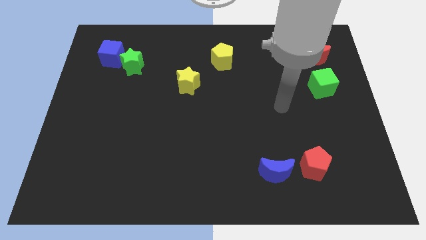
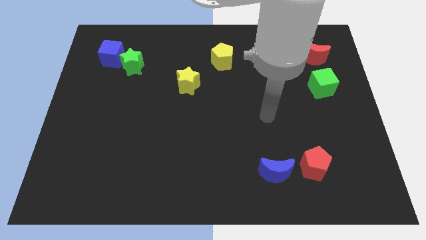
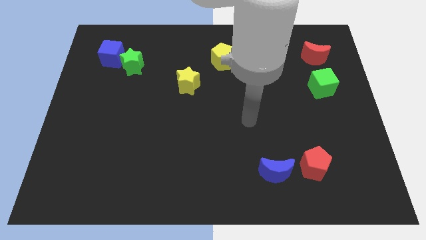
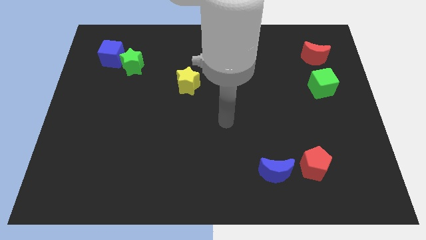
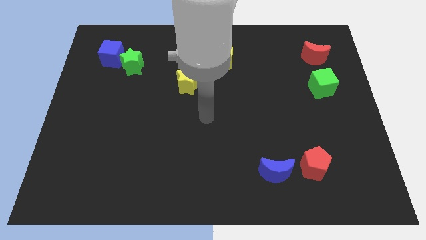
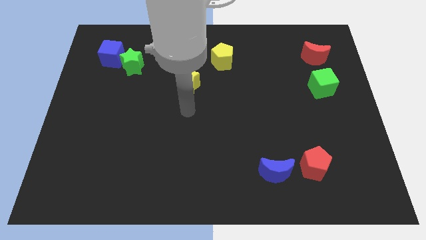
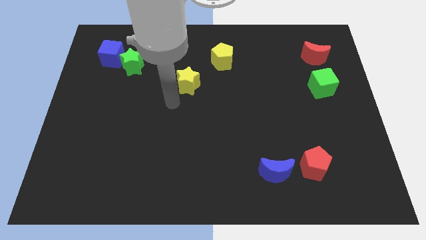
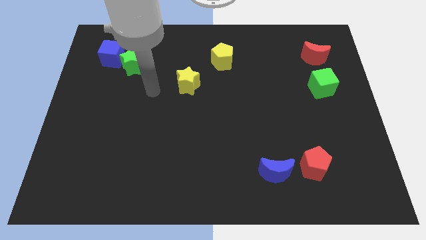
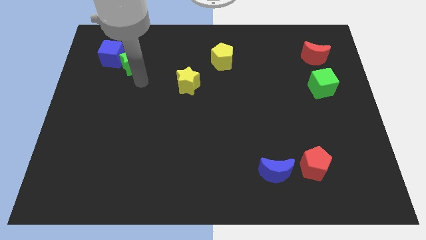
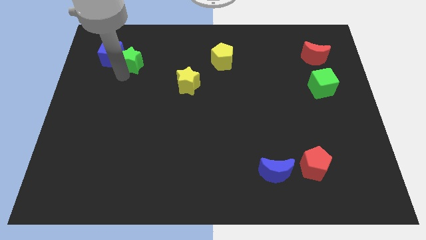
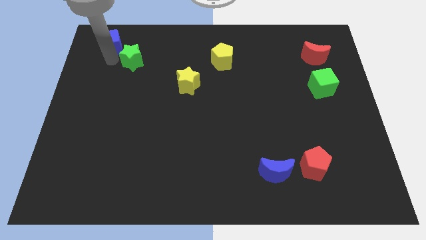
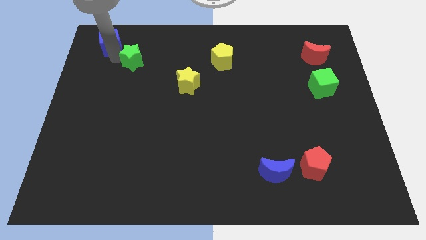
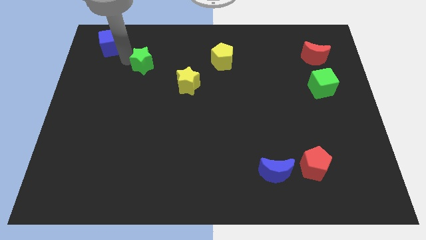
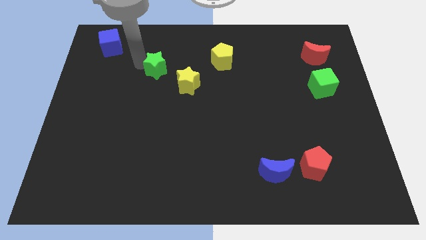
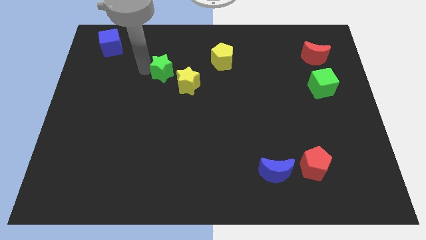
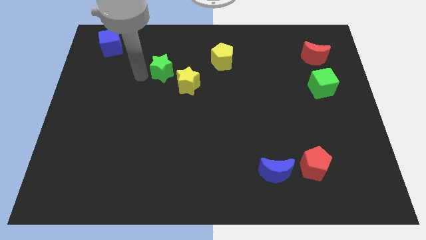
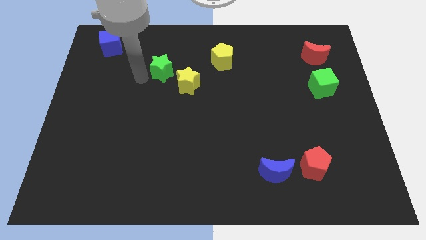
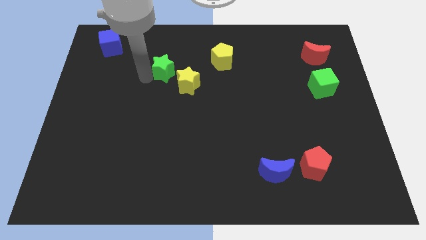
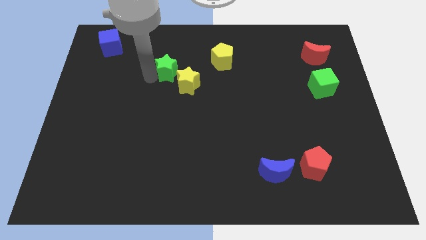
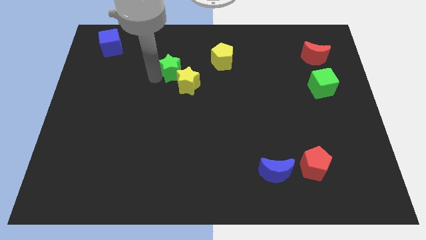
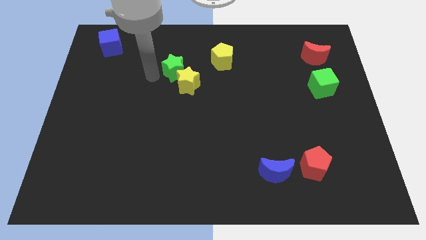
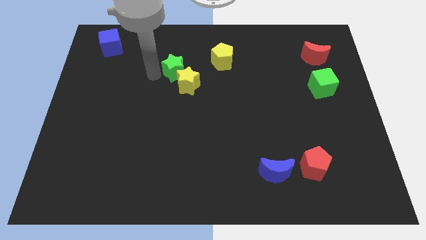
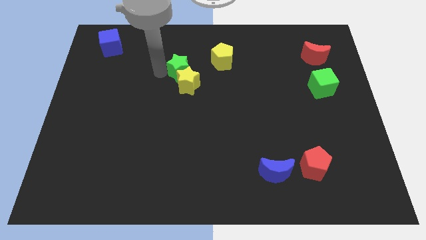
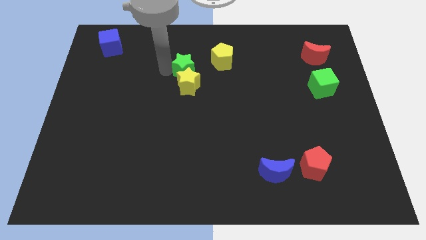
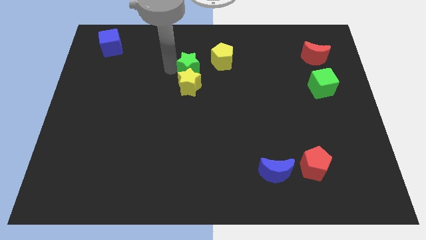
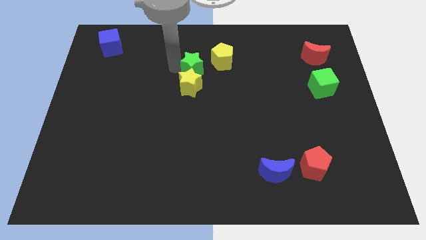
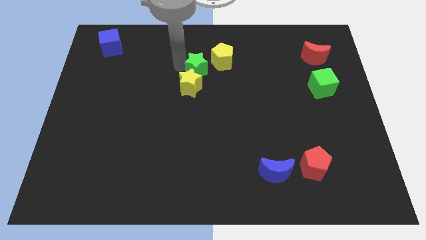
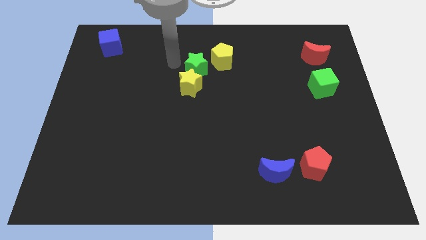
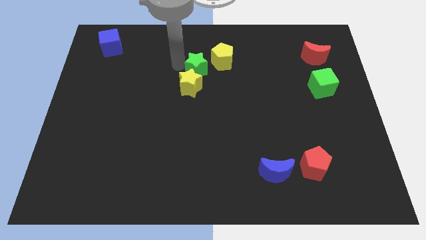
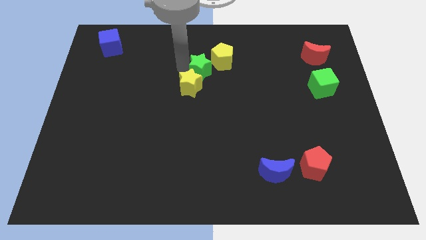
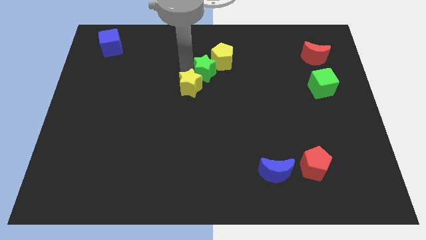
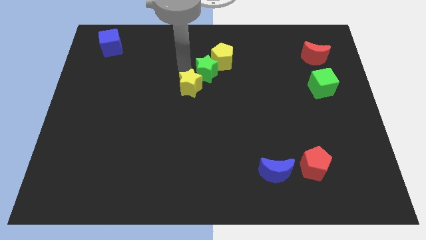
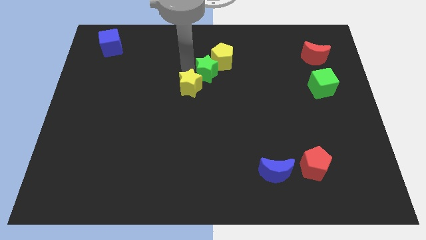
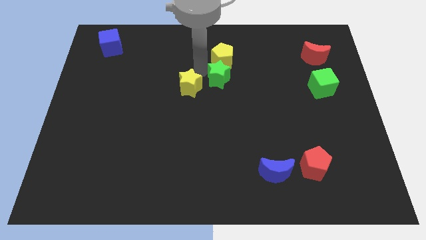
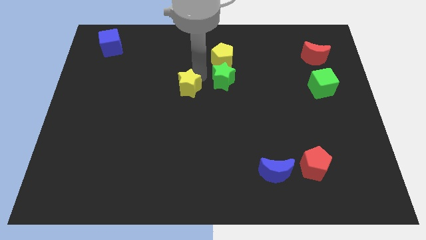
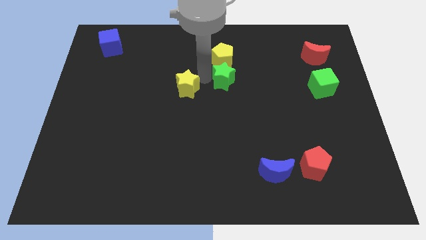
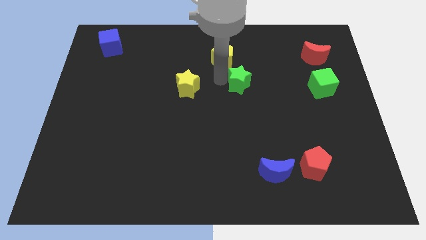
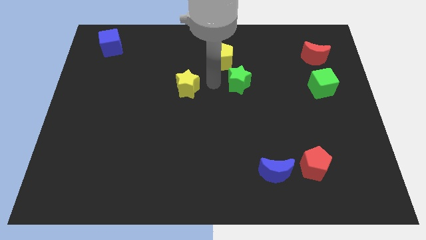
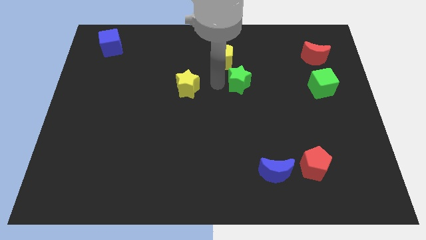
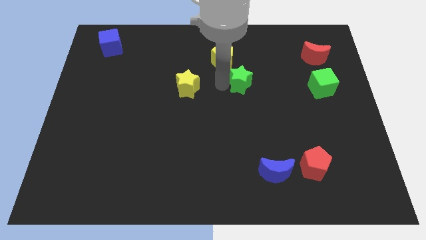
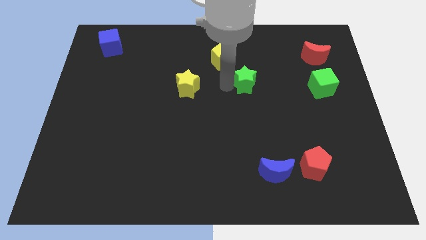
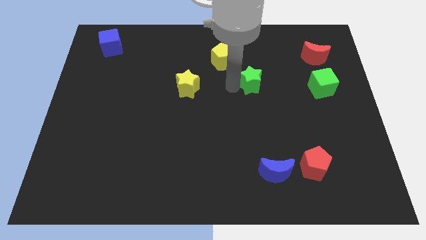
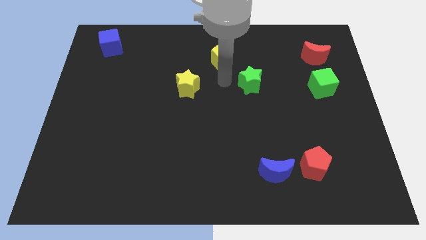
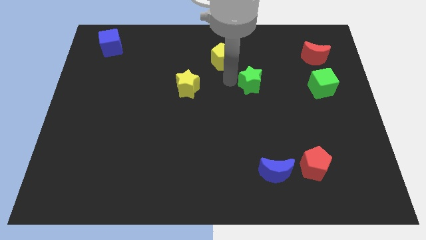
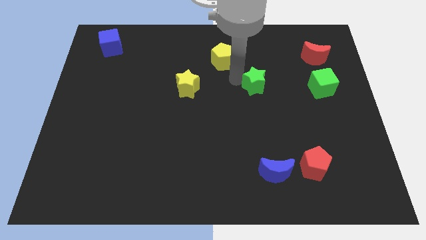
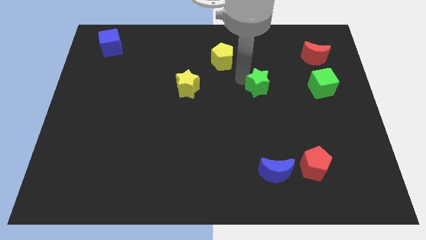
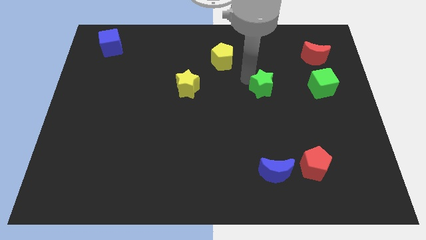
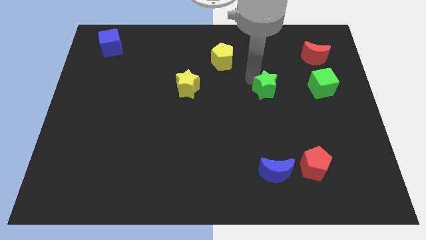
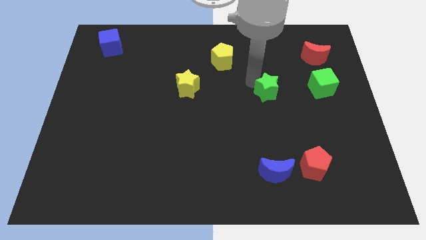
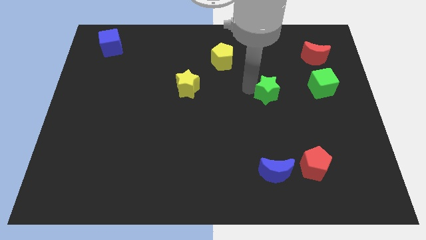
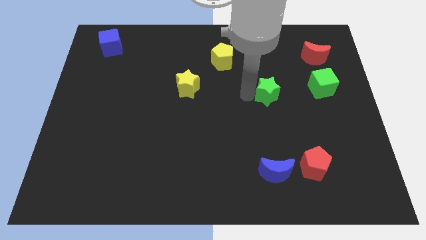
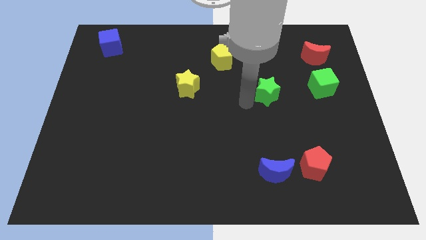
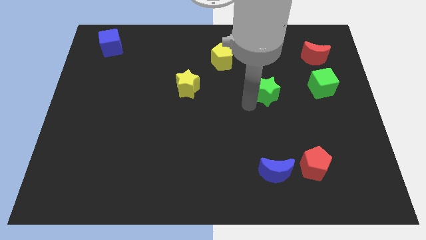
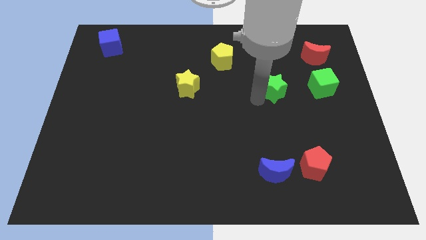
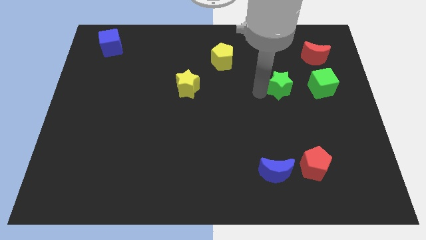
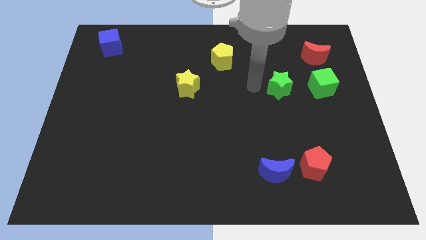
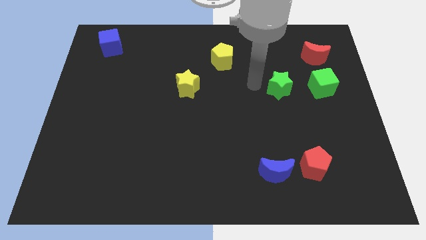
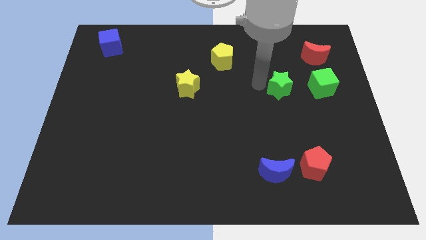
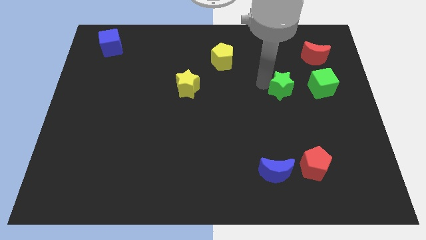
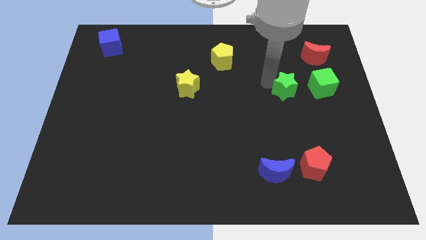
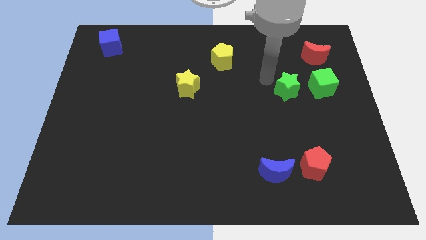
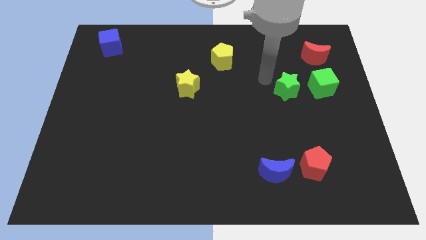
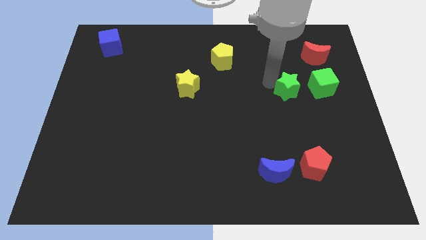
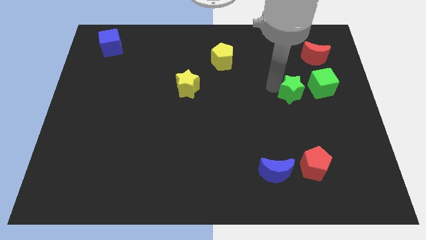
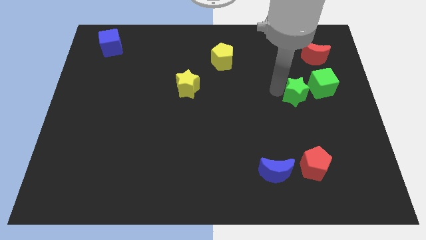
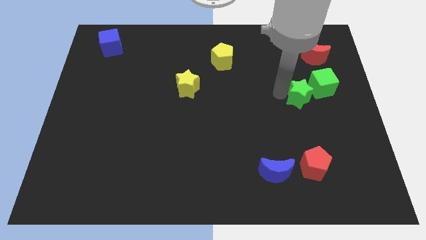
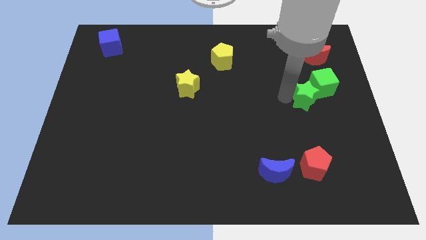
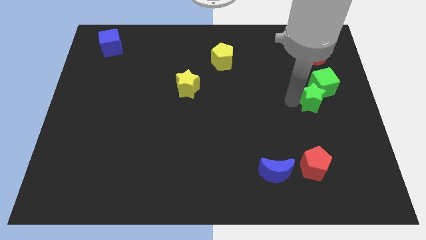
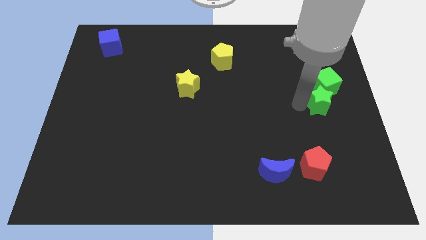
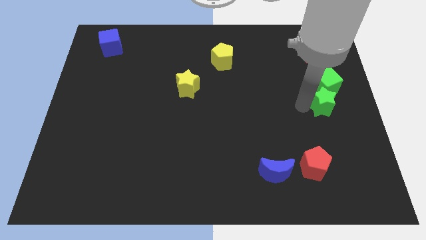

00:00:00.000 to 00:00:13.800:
move the green star to the right side of the board
